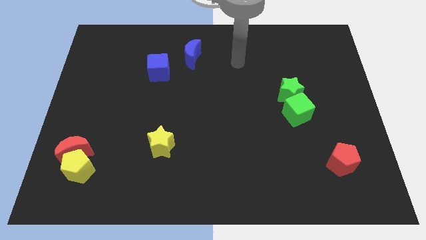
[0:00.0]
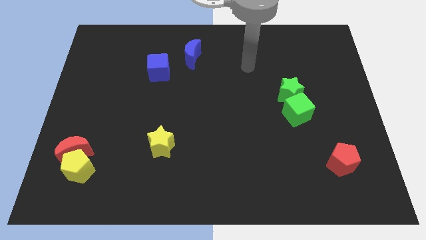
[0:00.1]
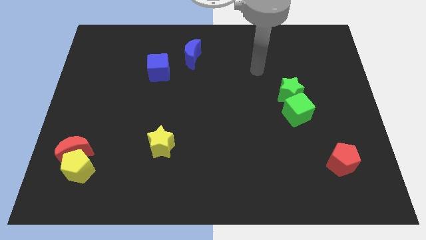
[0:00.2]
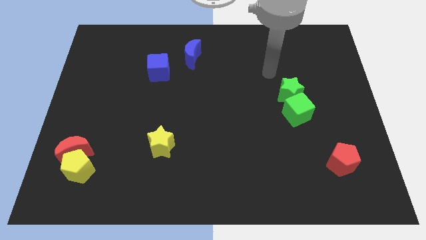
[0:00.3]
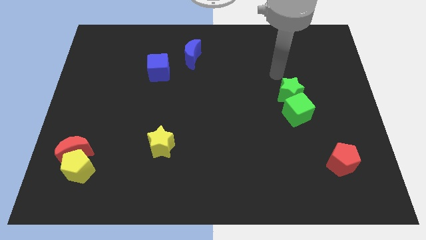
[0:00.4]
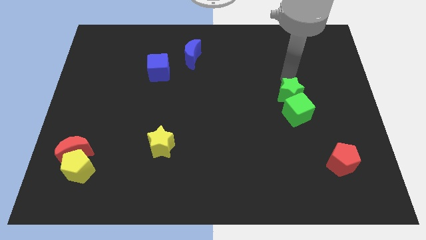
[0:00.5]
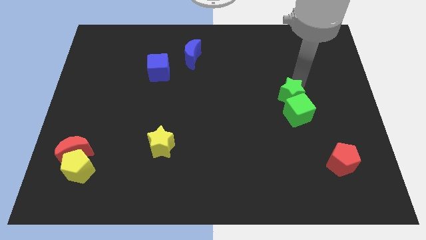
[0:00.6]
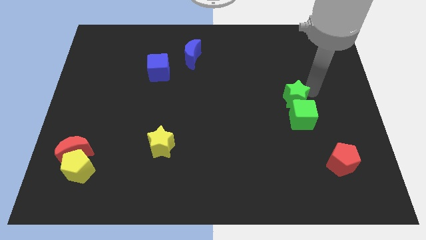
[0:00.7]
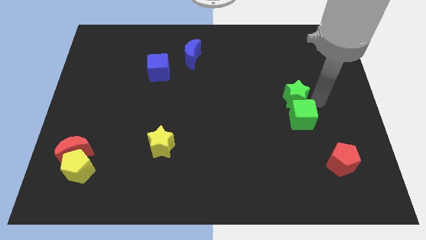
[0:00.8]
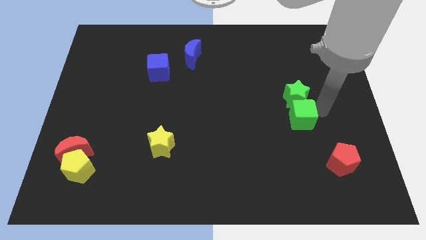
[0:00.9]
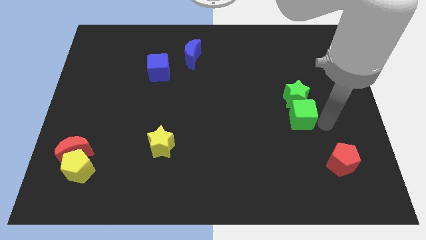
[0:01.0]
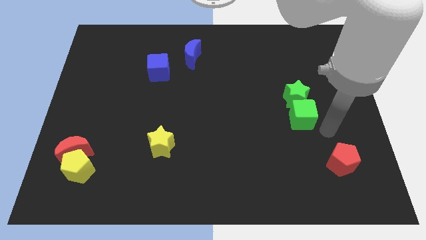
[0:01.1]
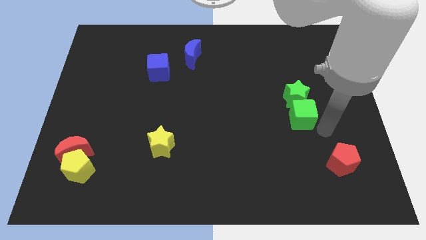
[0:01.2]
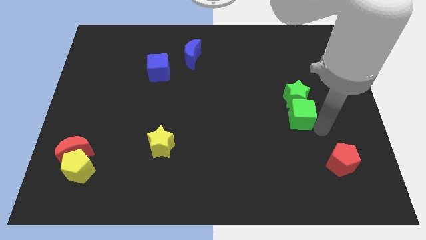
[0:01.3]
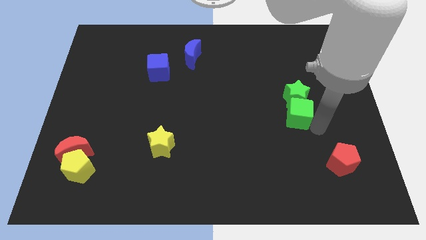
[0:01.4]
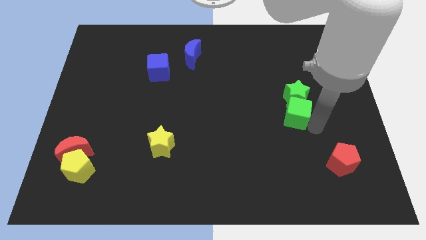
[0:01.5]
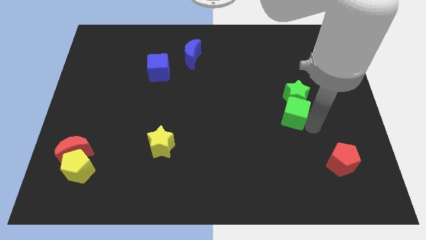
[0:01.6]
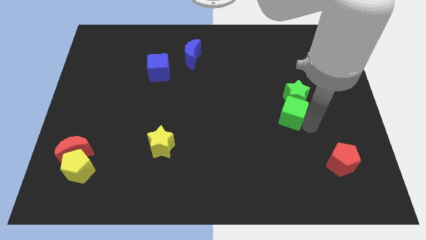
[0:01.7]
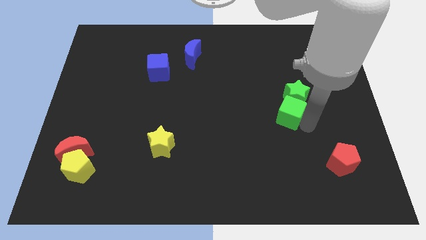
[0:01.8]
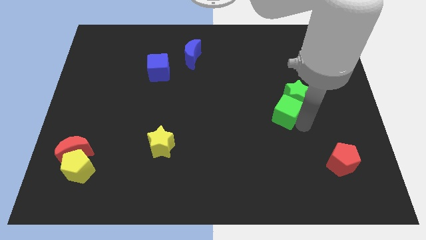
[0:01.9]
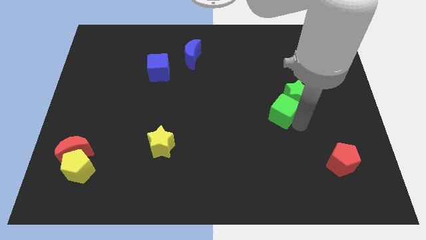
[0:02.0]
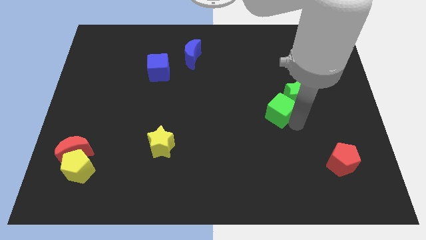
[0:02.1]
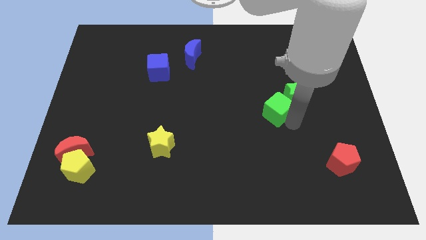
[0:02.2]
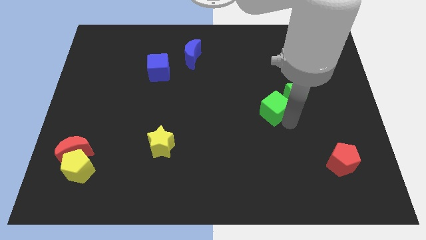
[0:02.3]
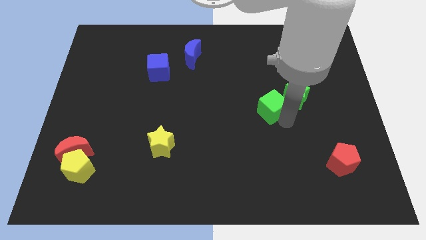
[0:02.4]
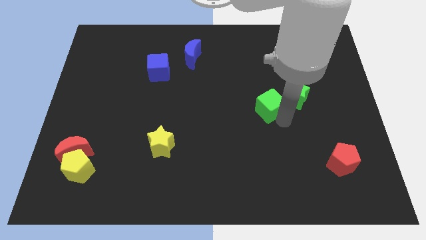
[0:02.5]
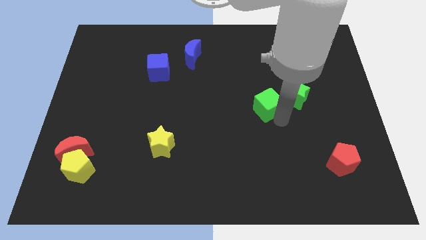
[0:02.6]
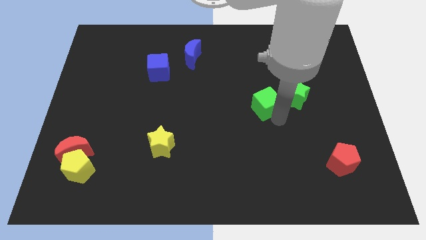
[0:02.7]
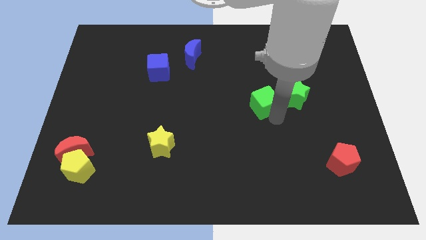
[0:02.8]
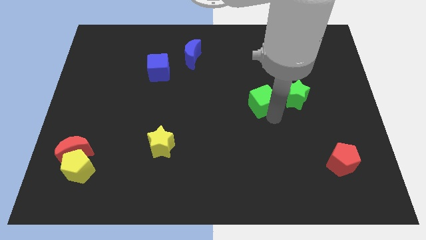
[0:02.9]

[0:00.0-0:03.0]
move the green cube a little diagonally upwards and to the left

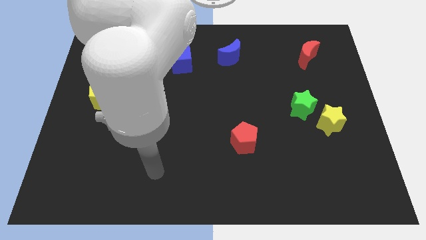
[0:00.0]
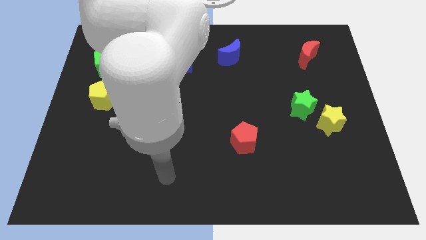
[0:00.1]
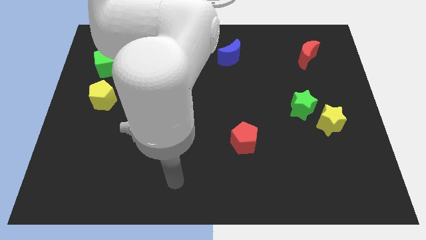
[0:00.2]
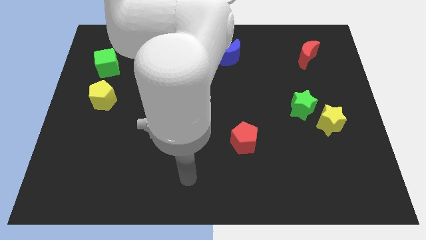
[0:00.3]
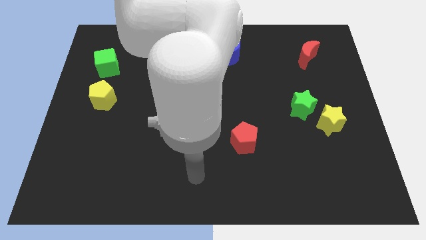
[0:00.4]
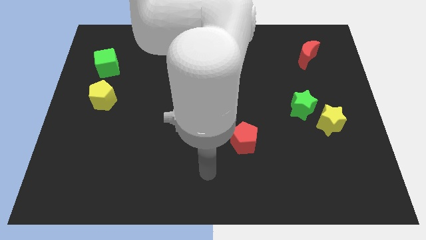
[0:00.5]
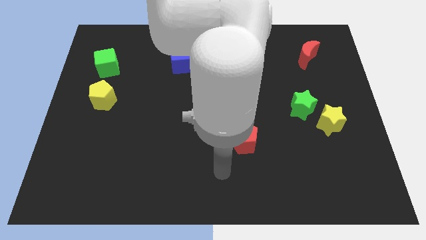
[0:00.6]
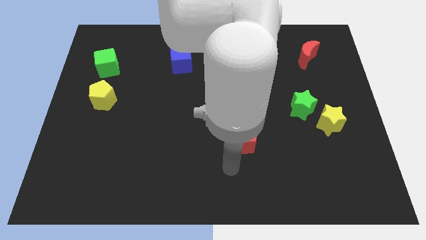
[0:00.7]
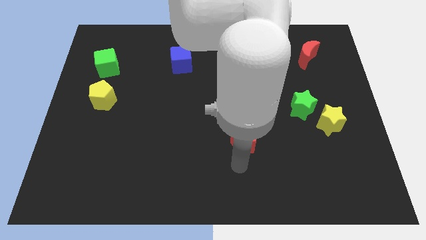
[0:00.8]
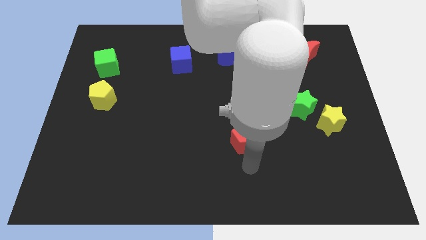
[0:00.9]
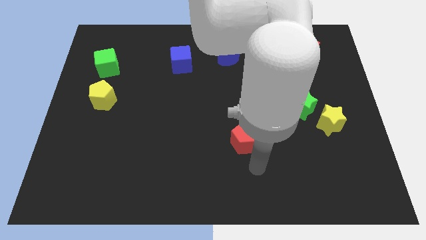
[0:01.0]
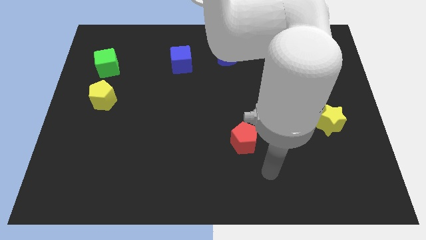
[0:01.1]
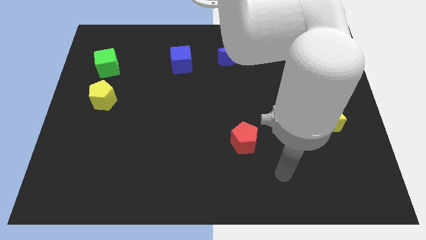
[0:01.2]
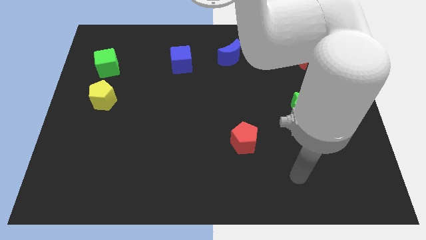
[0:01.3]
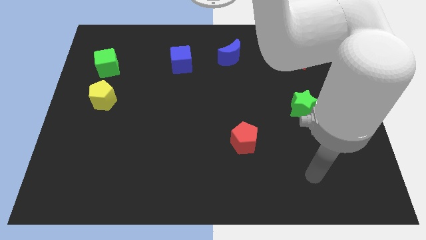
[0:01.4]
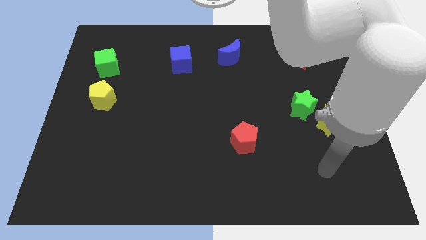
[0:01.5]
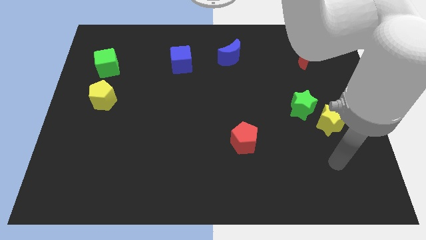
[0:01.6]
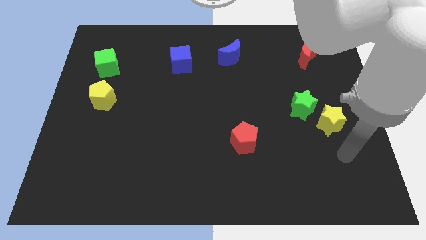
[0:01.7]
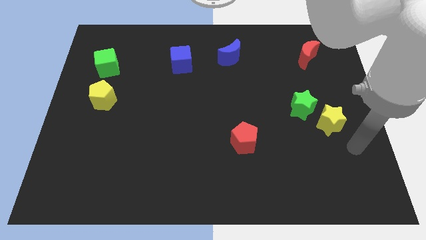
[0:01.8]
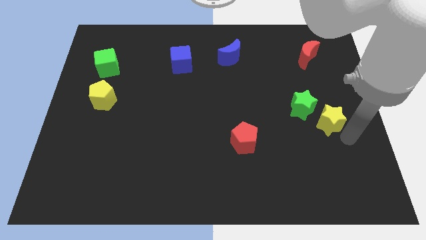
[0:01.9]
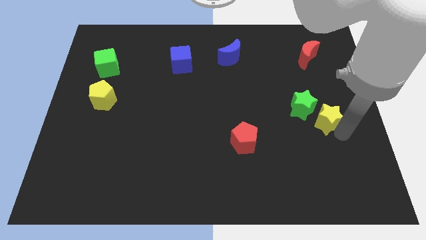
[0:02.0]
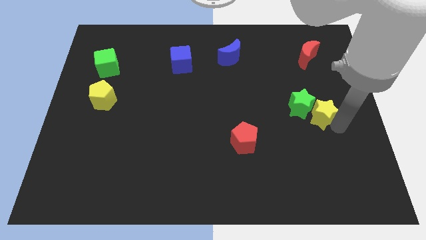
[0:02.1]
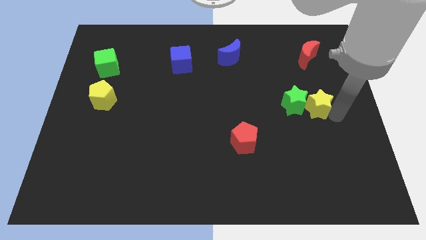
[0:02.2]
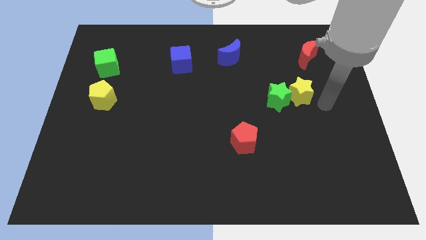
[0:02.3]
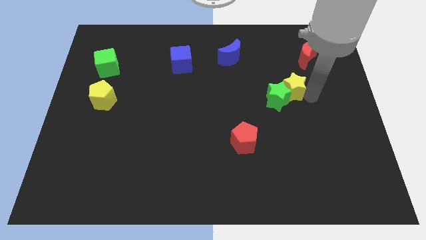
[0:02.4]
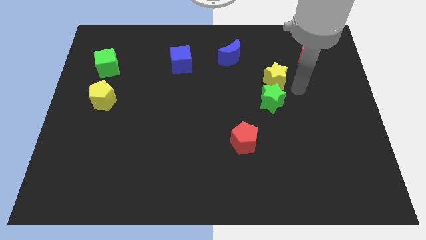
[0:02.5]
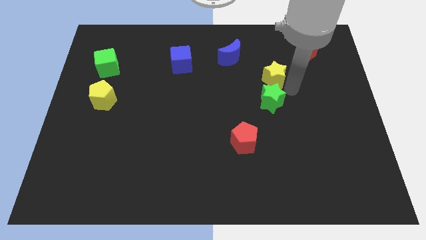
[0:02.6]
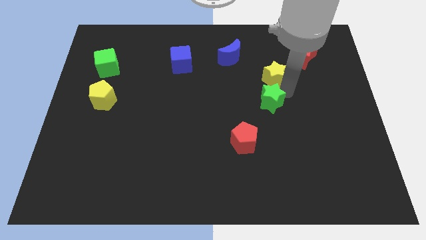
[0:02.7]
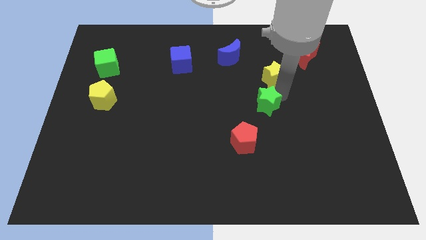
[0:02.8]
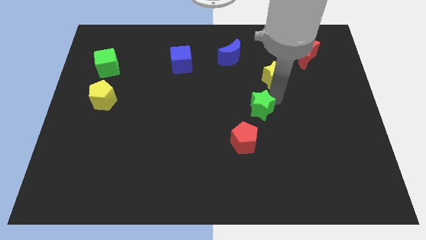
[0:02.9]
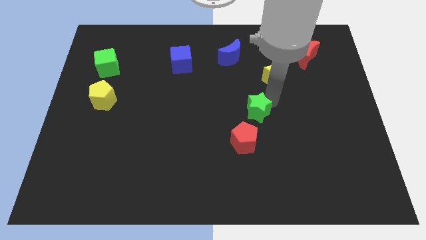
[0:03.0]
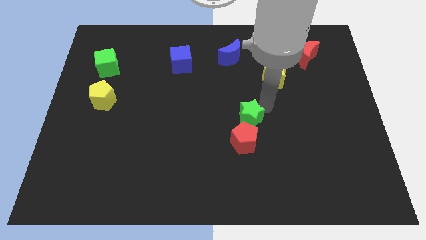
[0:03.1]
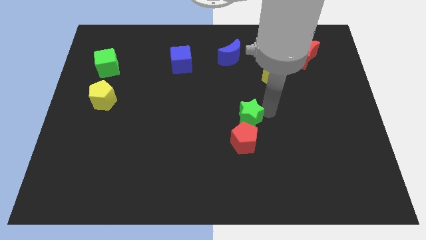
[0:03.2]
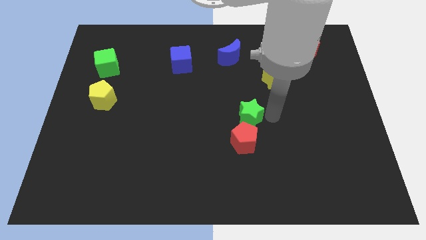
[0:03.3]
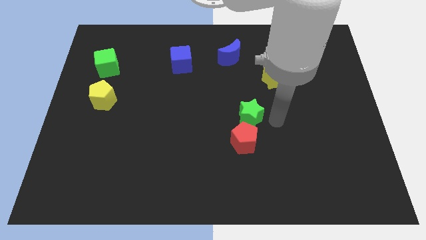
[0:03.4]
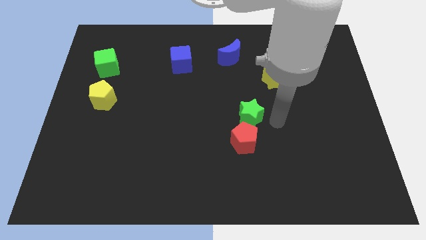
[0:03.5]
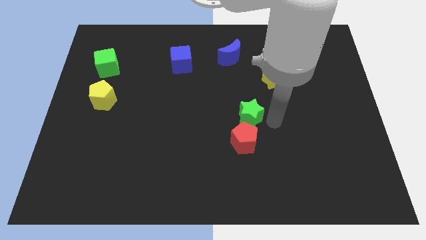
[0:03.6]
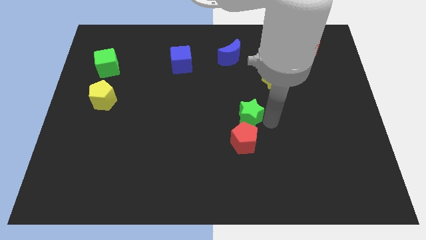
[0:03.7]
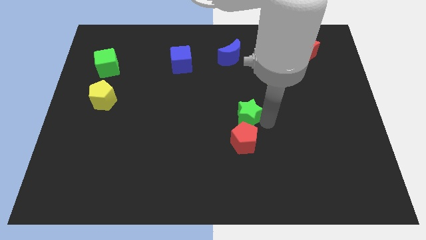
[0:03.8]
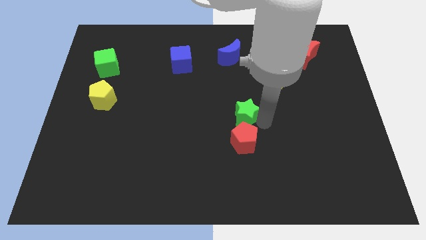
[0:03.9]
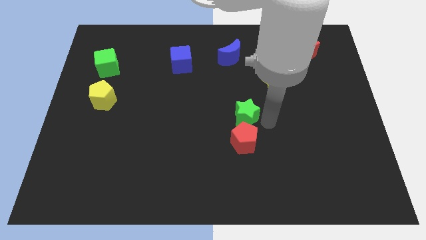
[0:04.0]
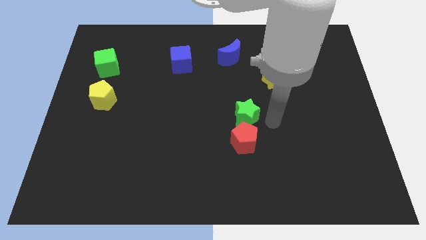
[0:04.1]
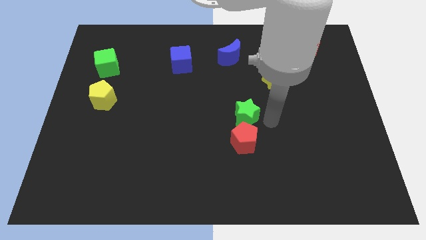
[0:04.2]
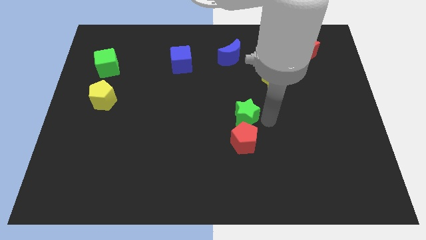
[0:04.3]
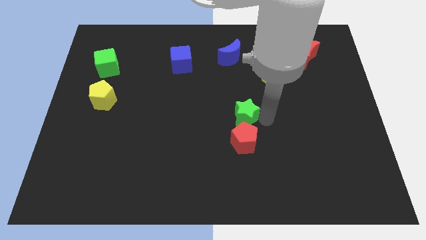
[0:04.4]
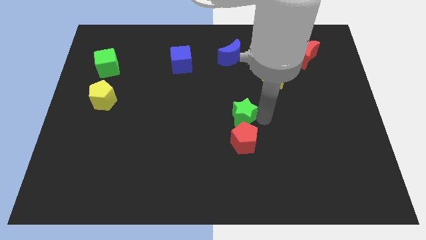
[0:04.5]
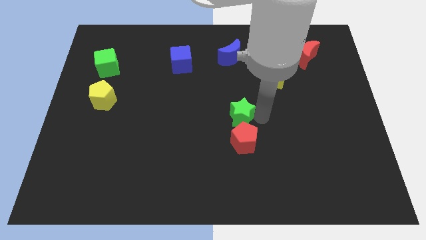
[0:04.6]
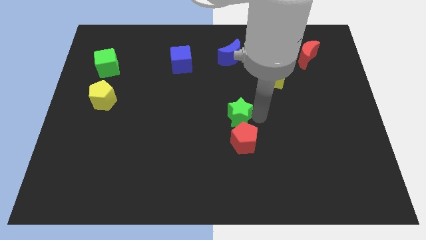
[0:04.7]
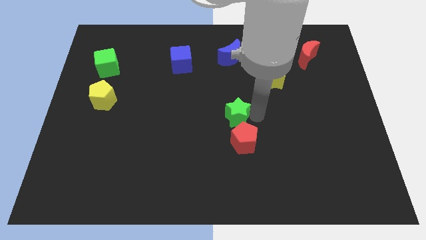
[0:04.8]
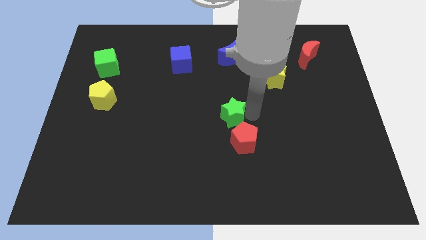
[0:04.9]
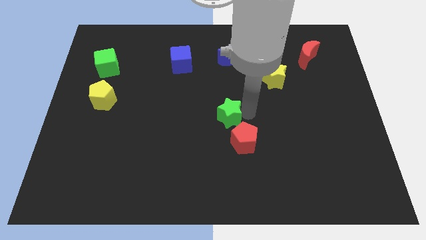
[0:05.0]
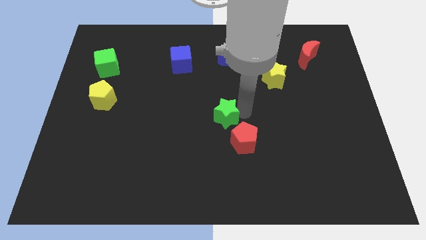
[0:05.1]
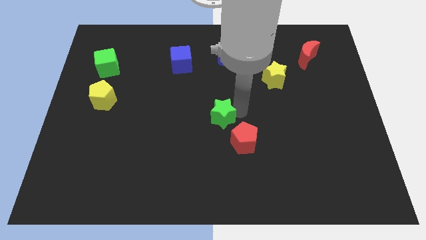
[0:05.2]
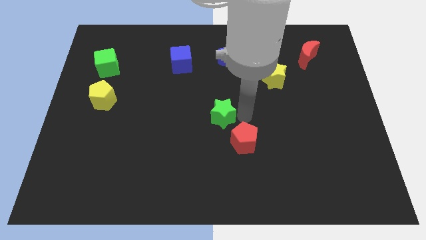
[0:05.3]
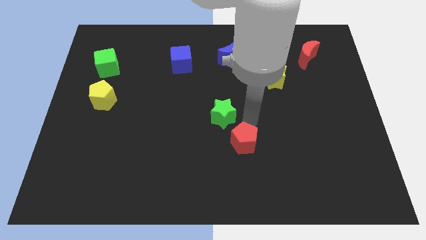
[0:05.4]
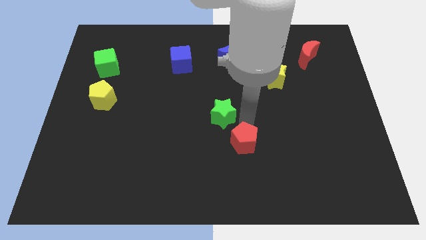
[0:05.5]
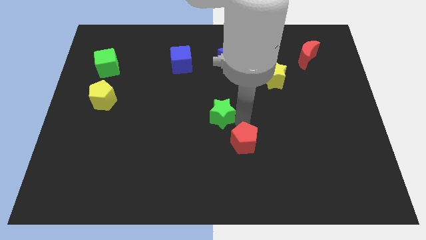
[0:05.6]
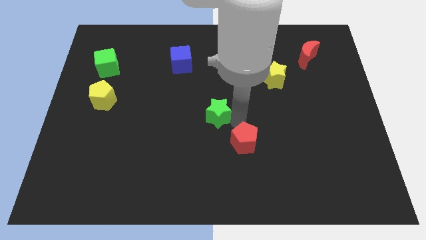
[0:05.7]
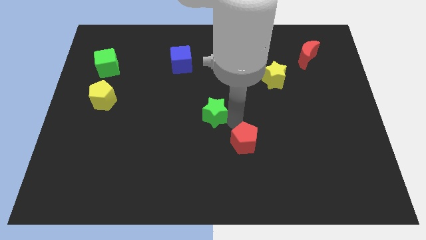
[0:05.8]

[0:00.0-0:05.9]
slide the green star left
